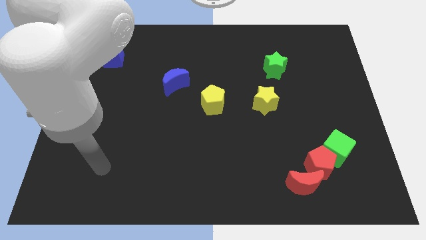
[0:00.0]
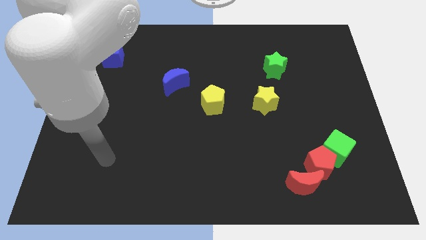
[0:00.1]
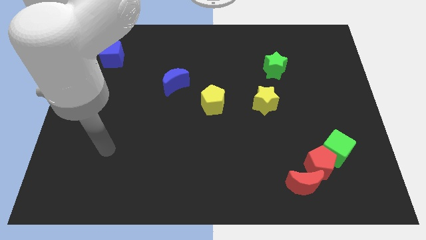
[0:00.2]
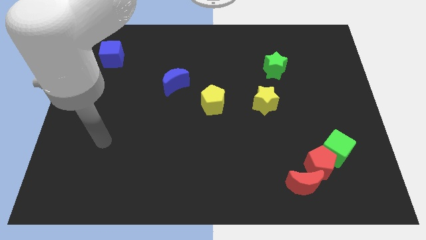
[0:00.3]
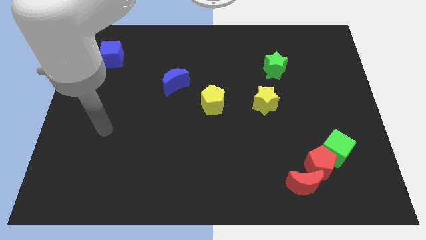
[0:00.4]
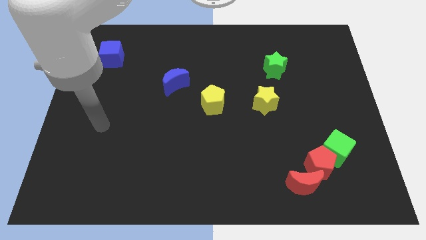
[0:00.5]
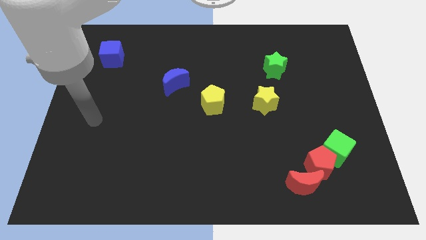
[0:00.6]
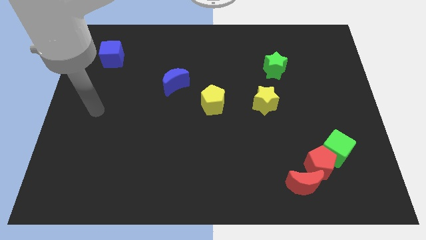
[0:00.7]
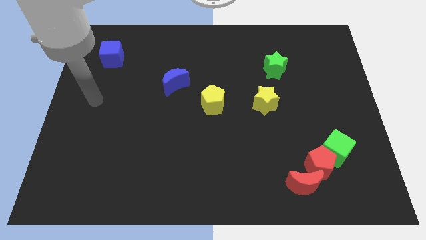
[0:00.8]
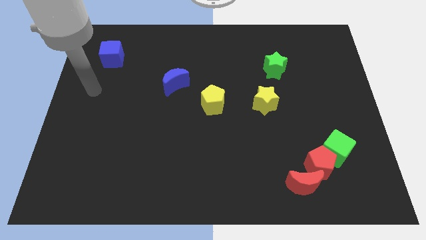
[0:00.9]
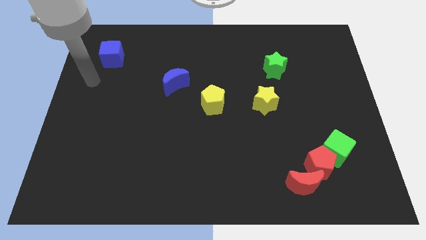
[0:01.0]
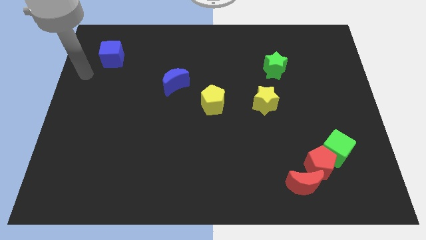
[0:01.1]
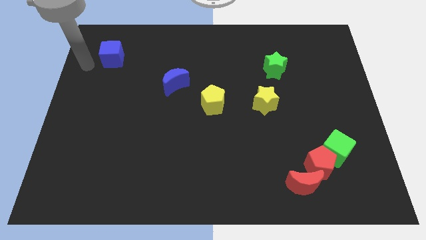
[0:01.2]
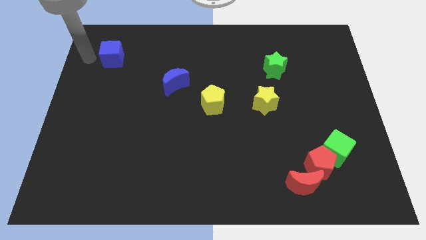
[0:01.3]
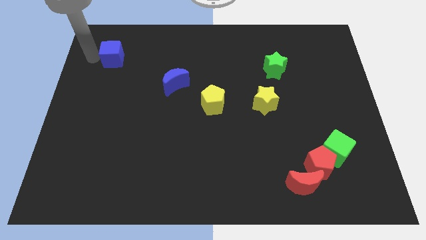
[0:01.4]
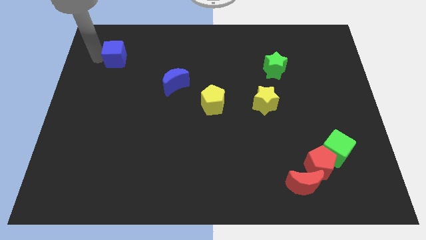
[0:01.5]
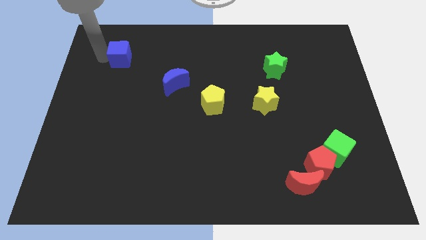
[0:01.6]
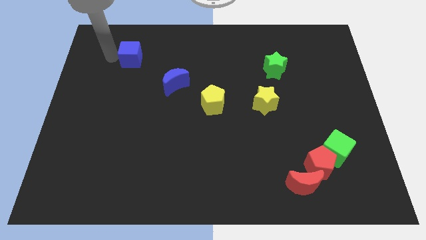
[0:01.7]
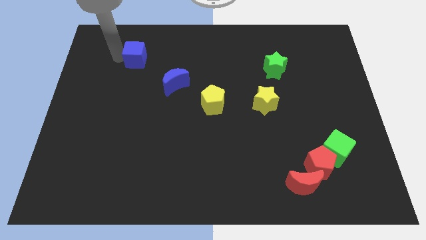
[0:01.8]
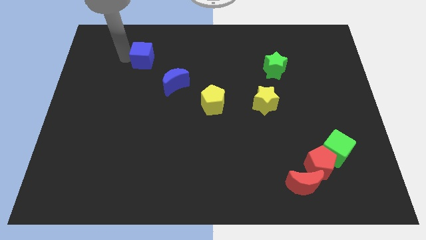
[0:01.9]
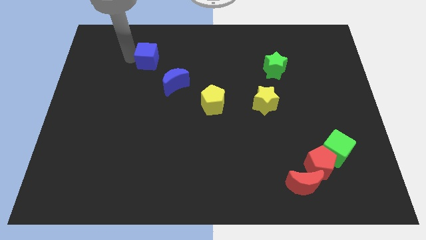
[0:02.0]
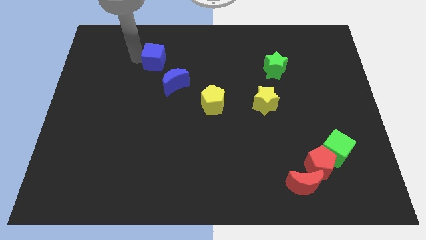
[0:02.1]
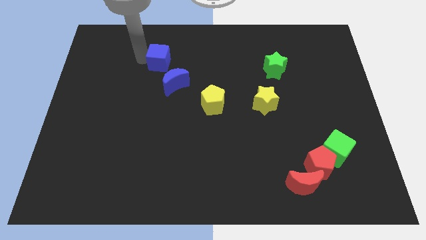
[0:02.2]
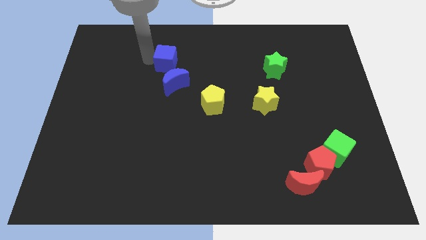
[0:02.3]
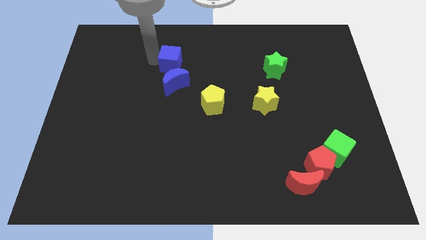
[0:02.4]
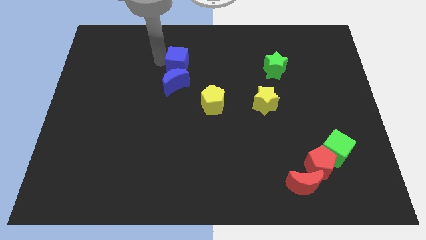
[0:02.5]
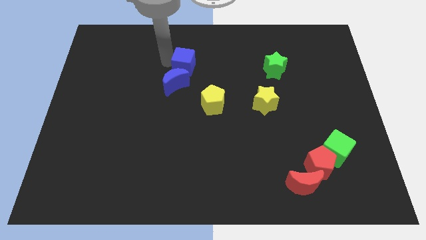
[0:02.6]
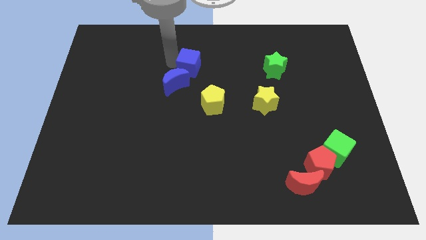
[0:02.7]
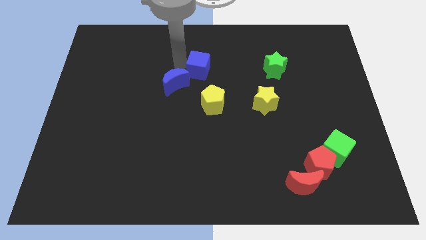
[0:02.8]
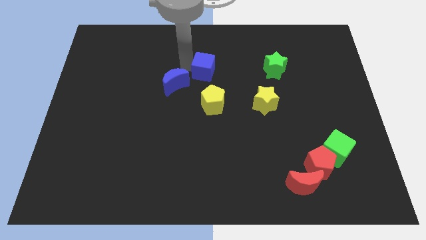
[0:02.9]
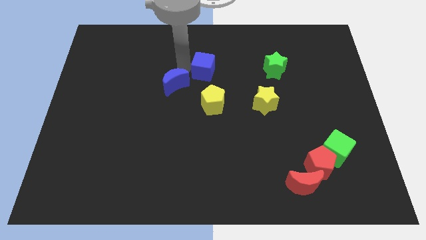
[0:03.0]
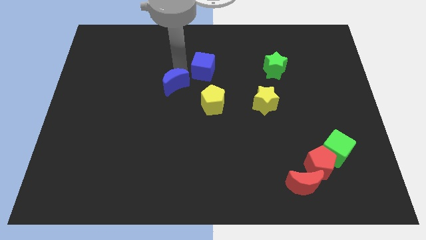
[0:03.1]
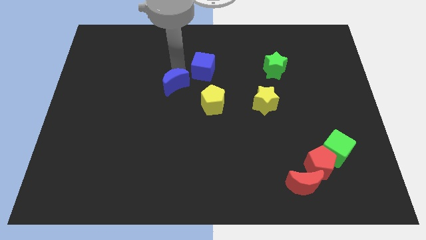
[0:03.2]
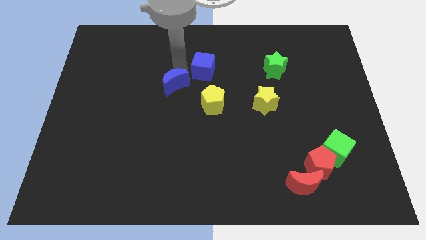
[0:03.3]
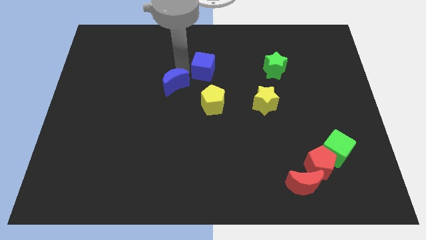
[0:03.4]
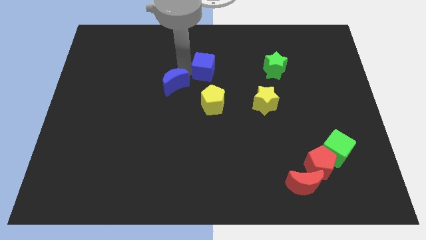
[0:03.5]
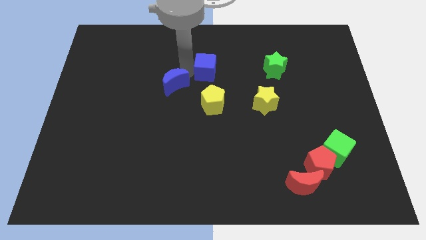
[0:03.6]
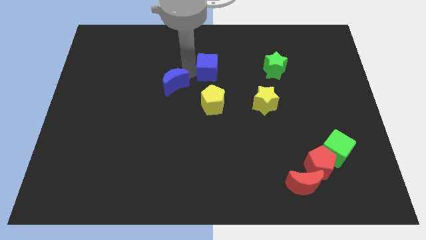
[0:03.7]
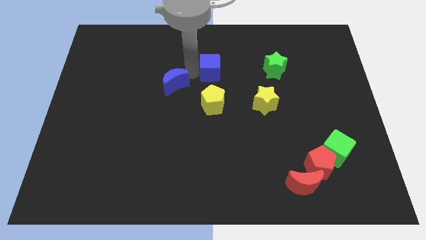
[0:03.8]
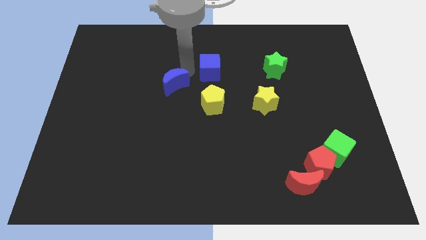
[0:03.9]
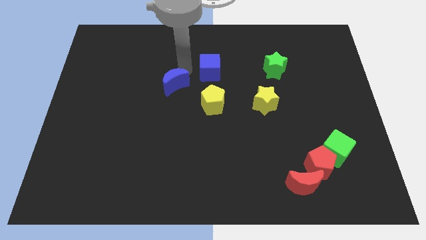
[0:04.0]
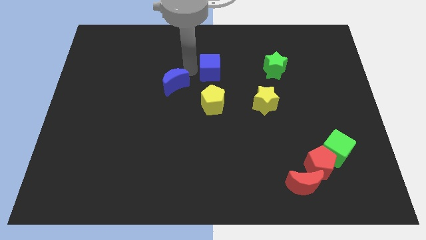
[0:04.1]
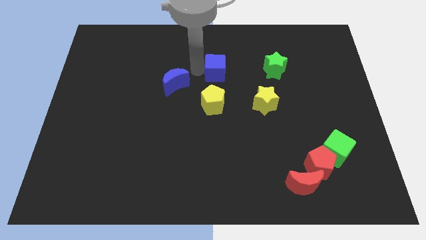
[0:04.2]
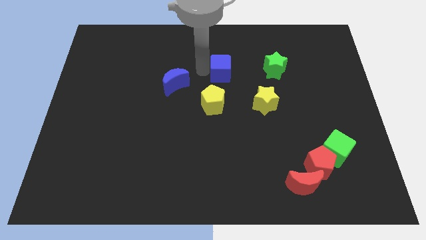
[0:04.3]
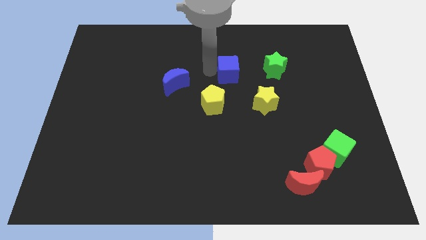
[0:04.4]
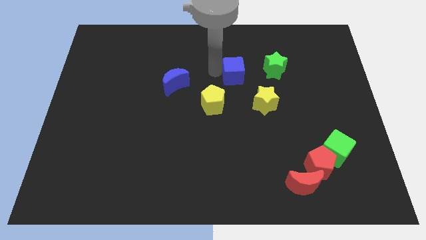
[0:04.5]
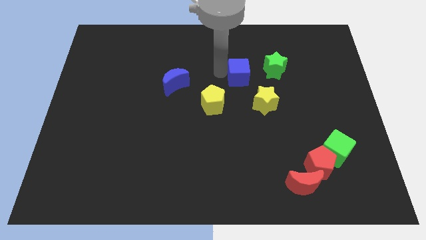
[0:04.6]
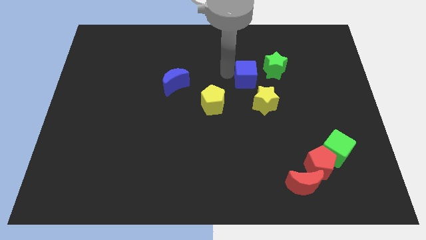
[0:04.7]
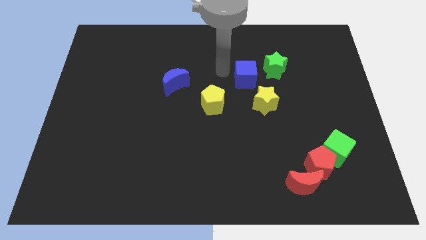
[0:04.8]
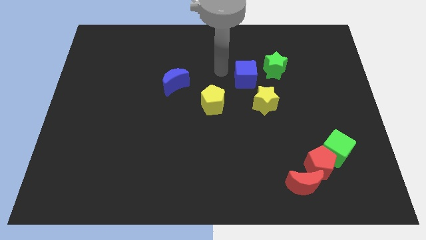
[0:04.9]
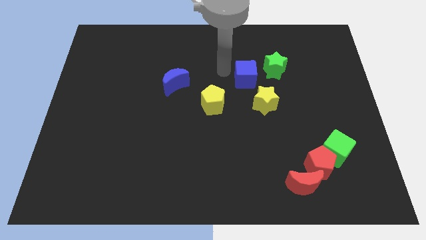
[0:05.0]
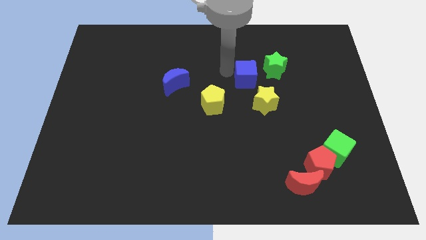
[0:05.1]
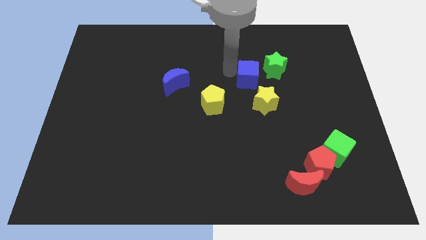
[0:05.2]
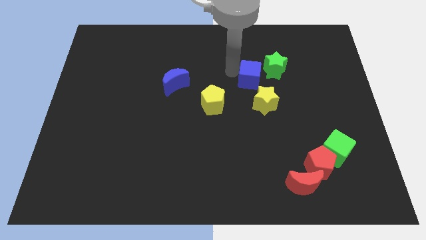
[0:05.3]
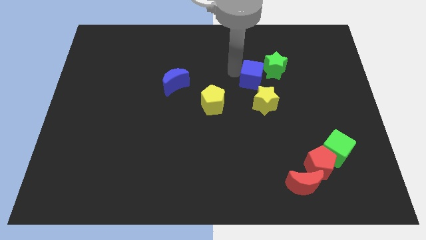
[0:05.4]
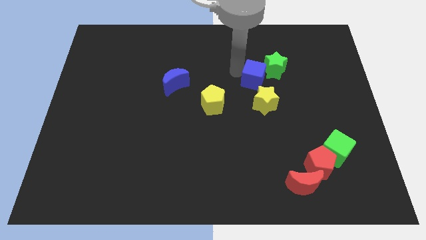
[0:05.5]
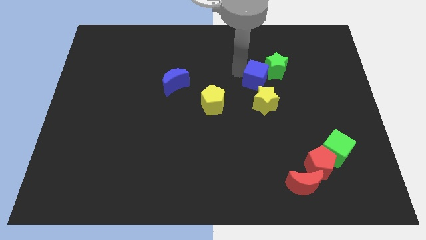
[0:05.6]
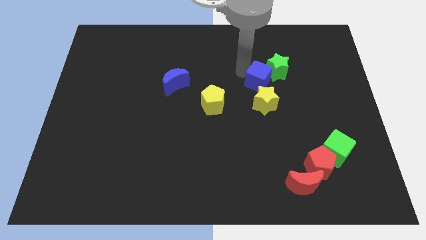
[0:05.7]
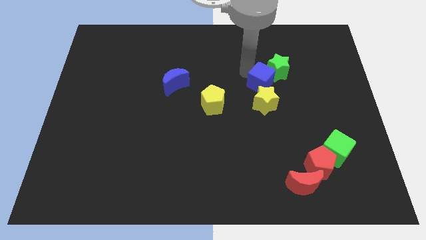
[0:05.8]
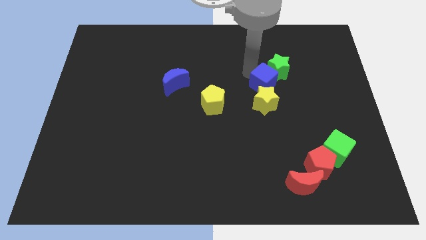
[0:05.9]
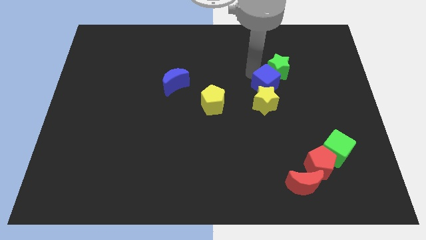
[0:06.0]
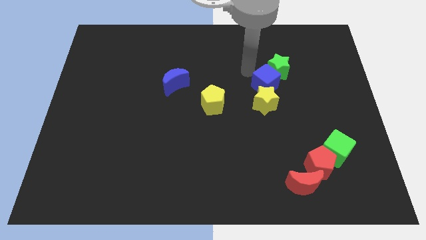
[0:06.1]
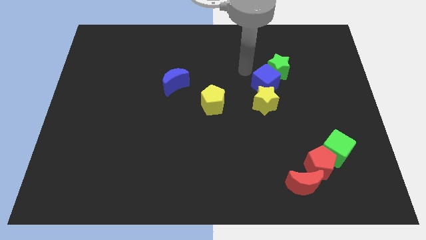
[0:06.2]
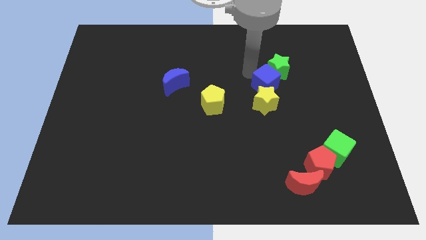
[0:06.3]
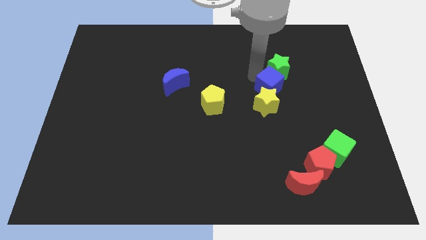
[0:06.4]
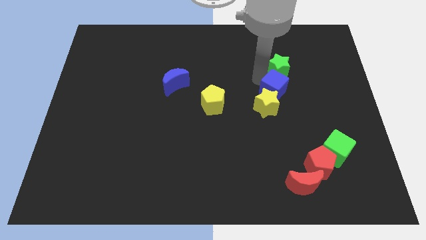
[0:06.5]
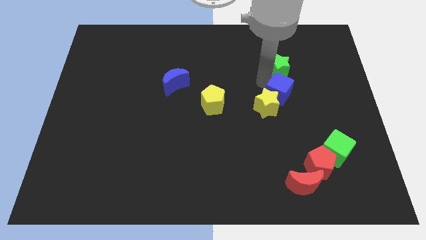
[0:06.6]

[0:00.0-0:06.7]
move the blue cube to the right side of the yellow star

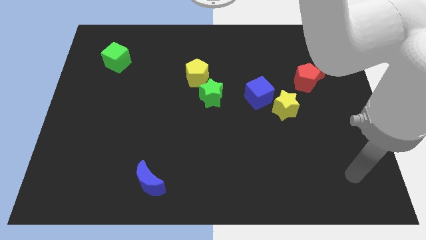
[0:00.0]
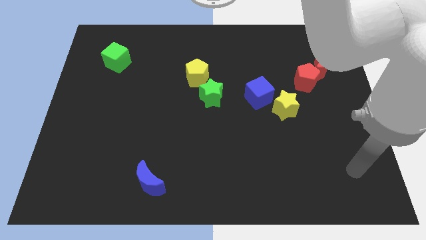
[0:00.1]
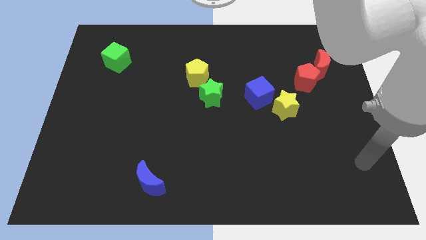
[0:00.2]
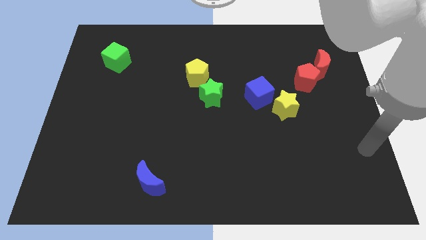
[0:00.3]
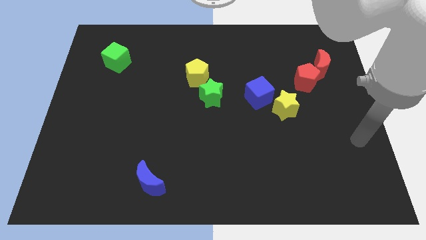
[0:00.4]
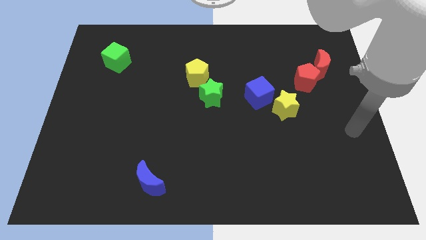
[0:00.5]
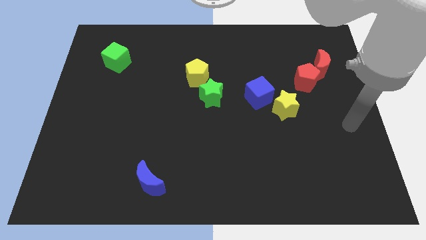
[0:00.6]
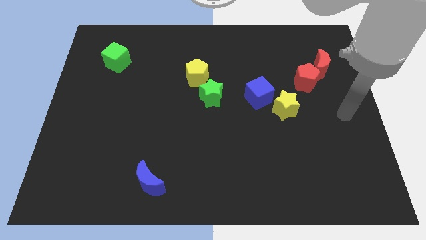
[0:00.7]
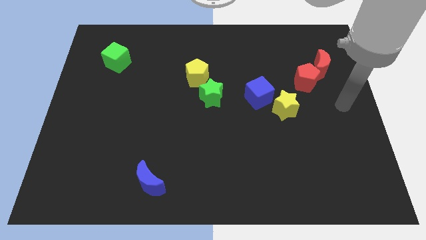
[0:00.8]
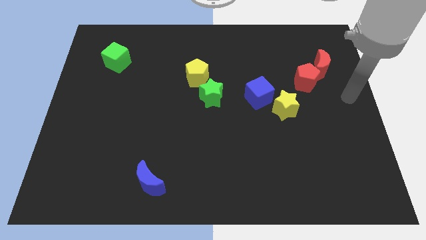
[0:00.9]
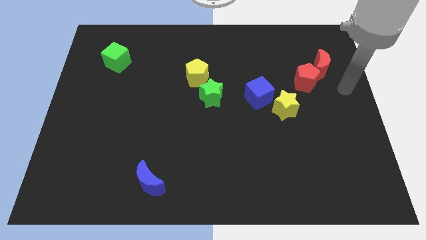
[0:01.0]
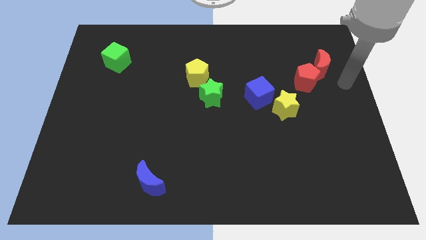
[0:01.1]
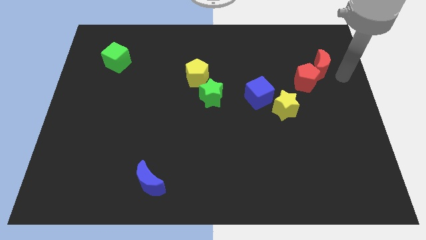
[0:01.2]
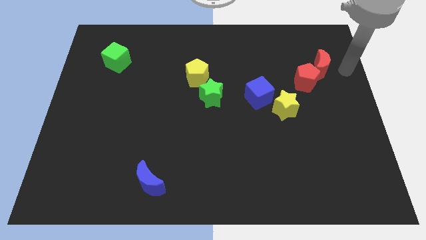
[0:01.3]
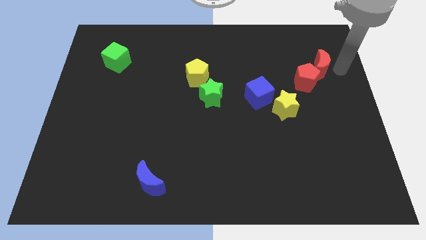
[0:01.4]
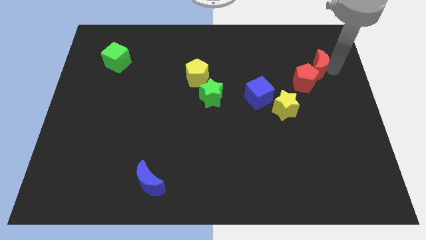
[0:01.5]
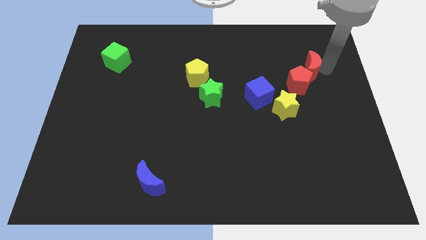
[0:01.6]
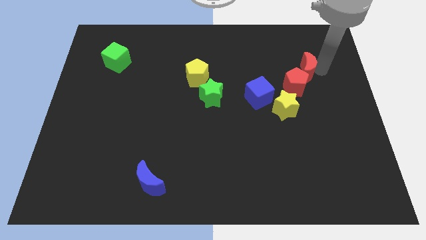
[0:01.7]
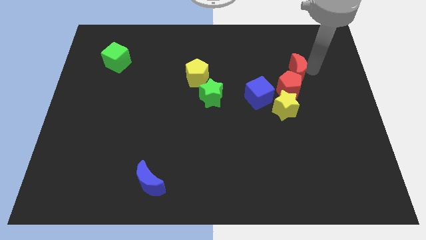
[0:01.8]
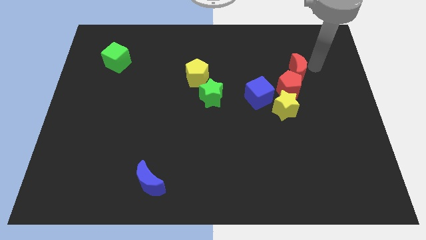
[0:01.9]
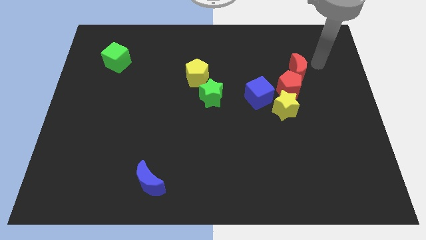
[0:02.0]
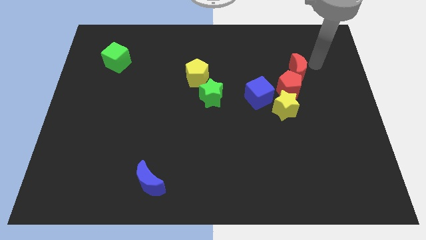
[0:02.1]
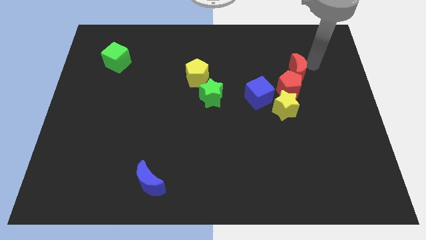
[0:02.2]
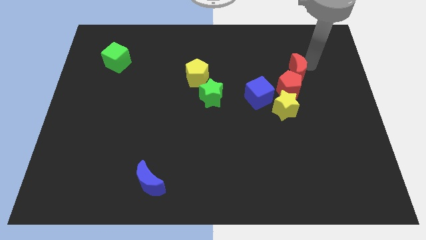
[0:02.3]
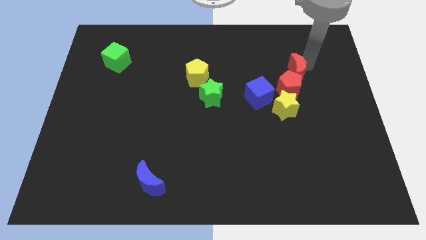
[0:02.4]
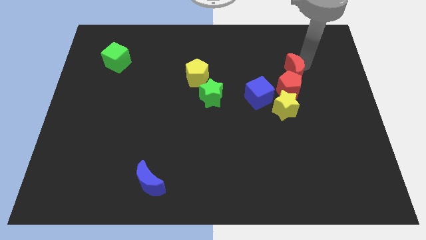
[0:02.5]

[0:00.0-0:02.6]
slide the red moon to the top right of the blue cube
